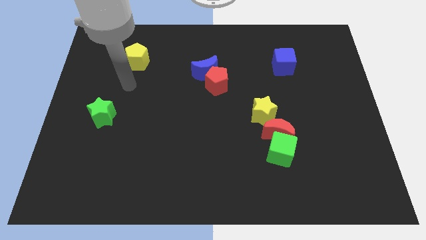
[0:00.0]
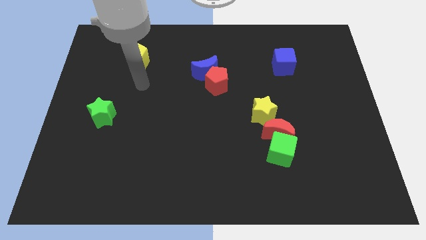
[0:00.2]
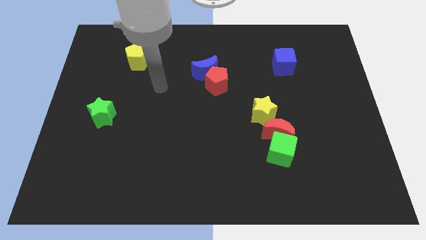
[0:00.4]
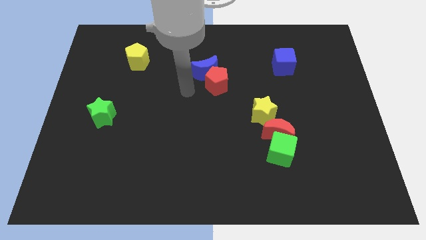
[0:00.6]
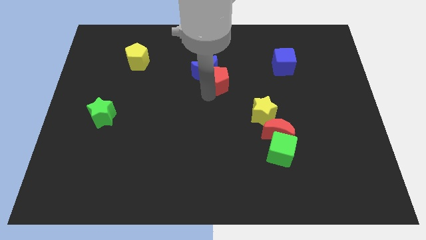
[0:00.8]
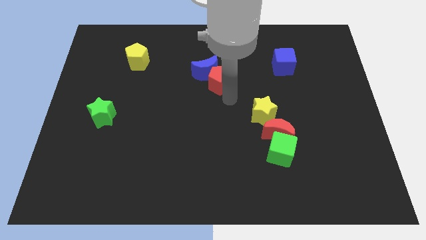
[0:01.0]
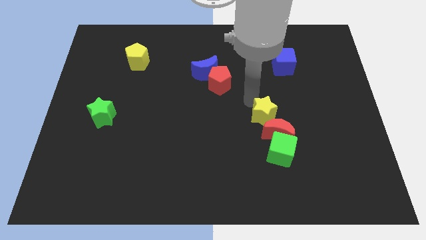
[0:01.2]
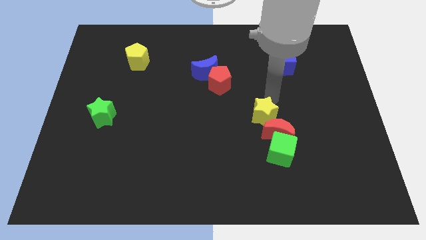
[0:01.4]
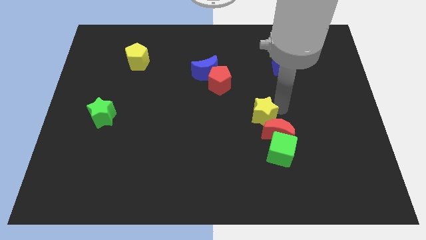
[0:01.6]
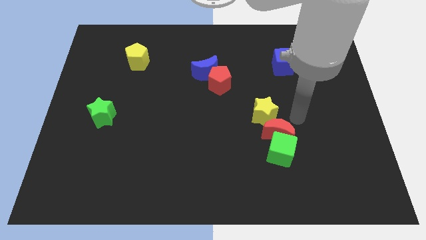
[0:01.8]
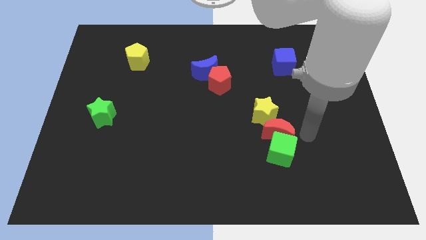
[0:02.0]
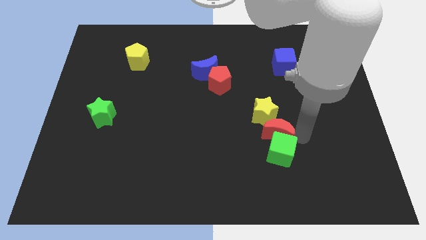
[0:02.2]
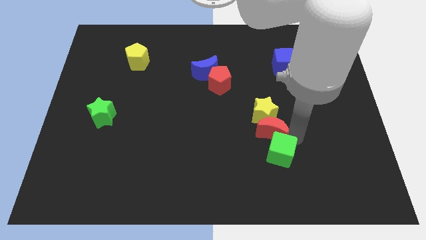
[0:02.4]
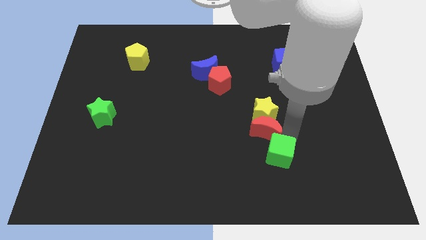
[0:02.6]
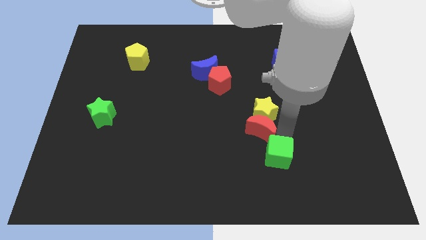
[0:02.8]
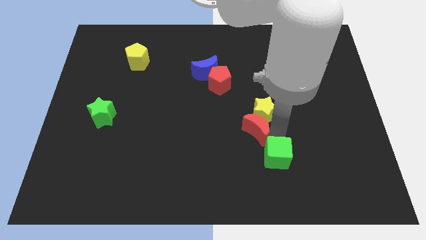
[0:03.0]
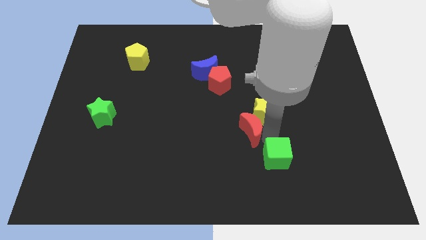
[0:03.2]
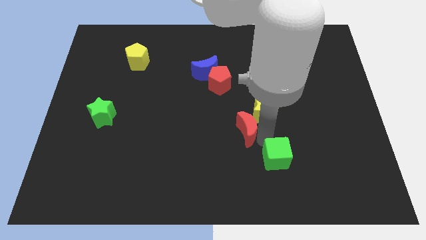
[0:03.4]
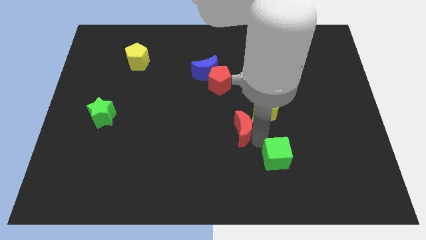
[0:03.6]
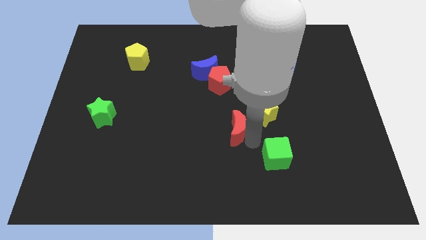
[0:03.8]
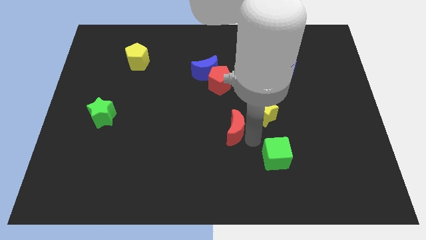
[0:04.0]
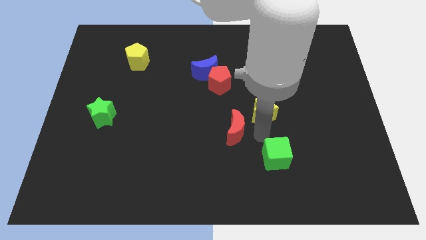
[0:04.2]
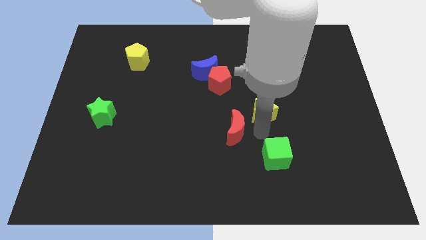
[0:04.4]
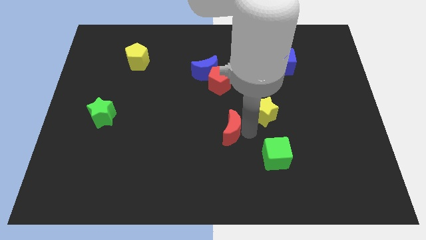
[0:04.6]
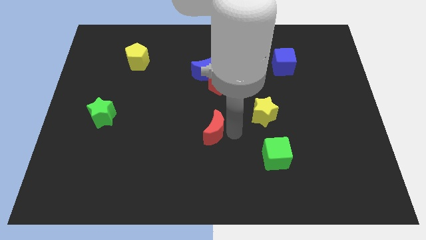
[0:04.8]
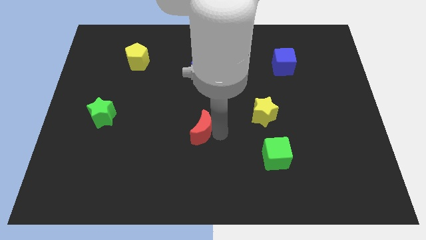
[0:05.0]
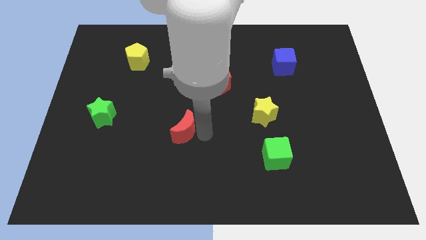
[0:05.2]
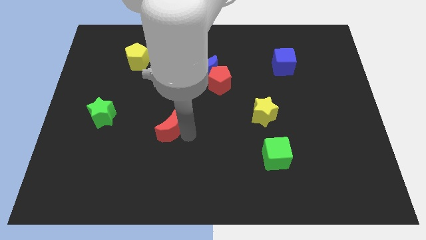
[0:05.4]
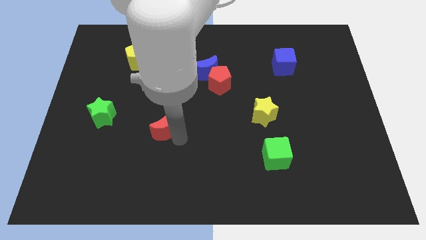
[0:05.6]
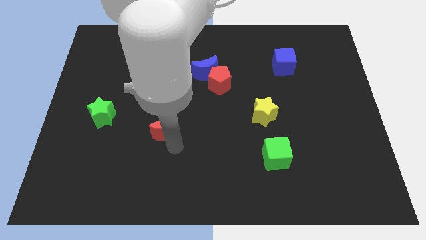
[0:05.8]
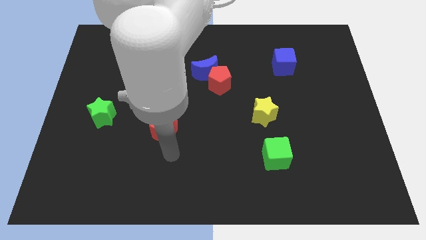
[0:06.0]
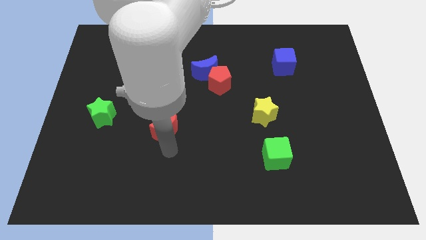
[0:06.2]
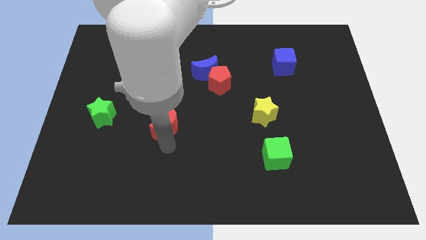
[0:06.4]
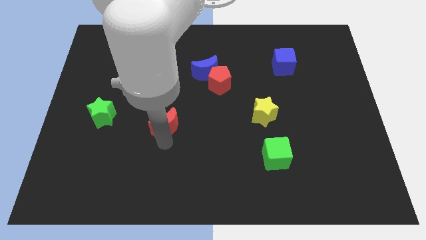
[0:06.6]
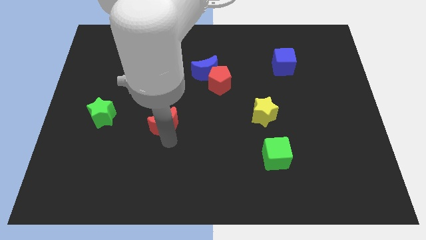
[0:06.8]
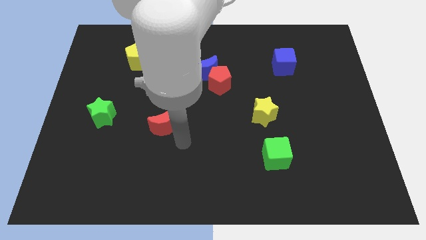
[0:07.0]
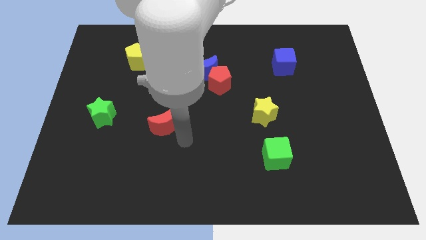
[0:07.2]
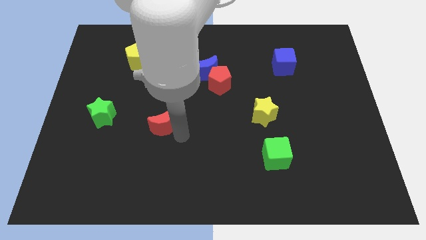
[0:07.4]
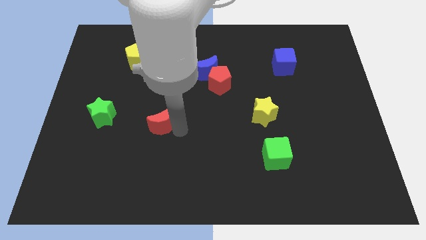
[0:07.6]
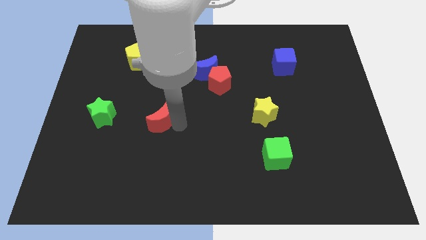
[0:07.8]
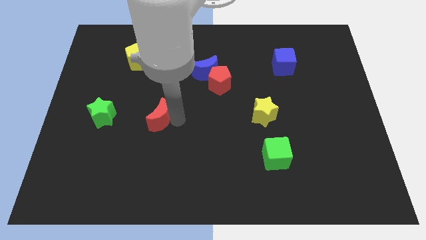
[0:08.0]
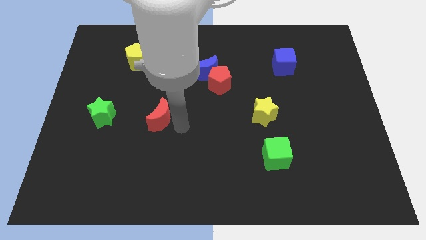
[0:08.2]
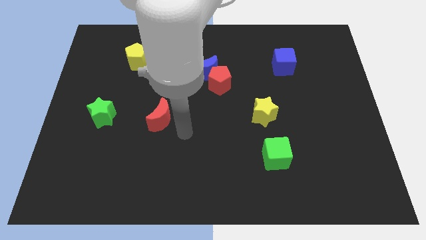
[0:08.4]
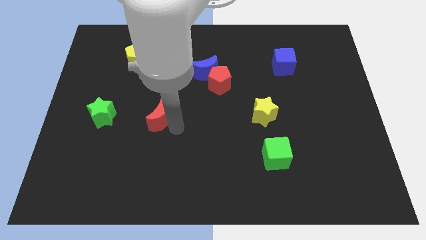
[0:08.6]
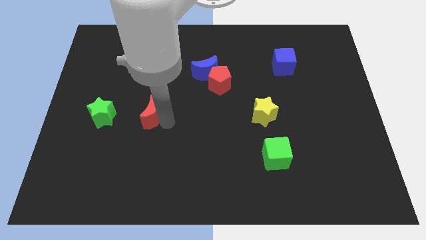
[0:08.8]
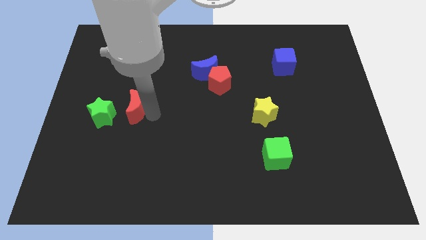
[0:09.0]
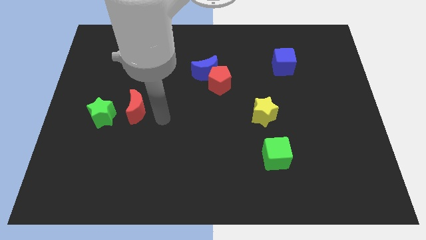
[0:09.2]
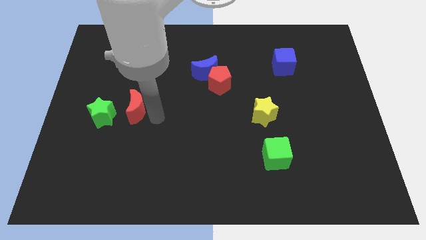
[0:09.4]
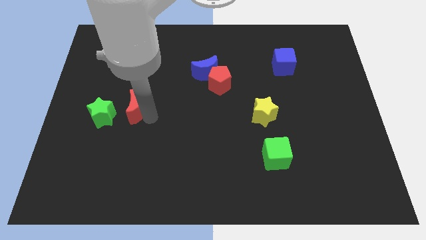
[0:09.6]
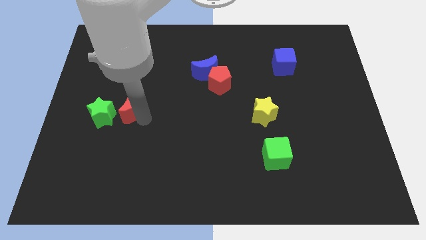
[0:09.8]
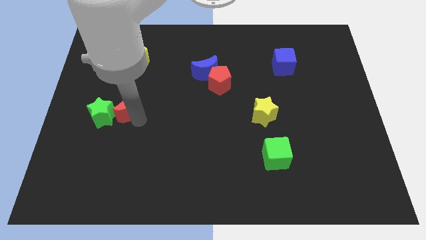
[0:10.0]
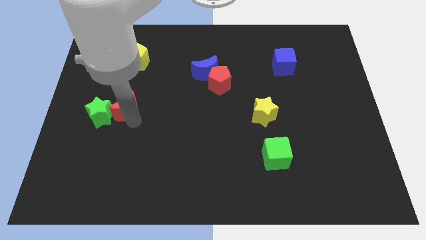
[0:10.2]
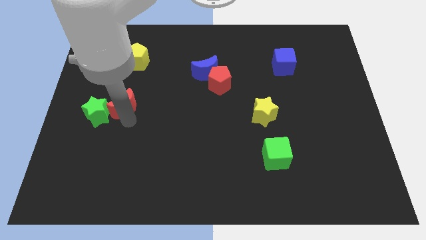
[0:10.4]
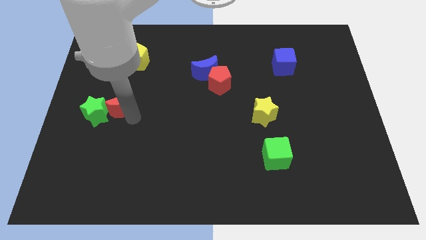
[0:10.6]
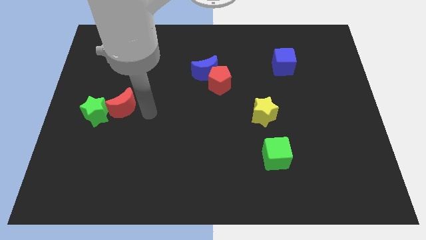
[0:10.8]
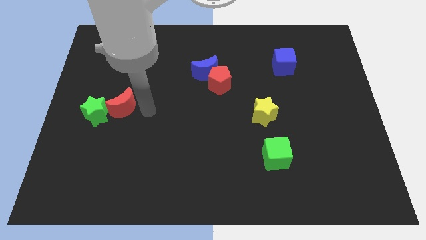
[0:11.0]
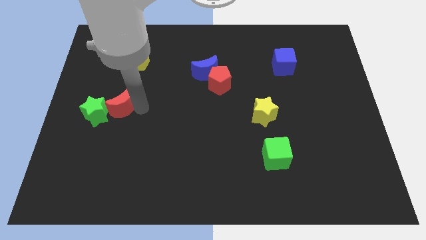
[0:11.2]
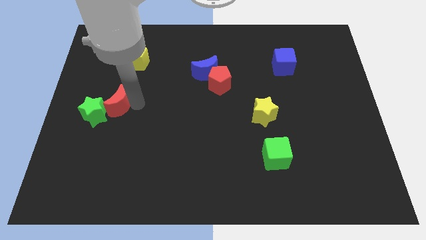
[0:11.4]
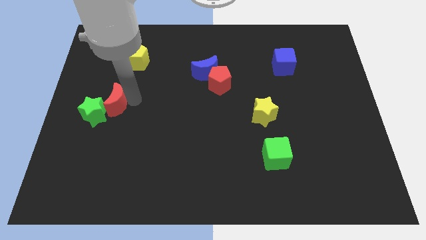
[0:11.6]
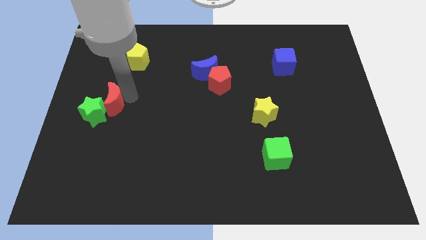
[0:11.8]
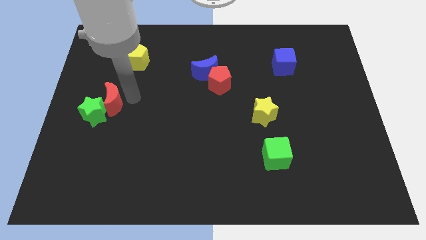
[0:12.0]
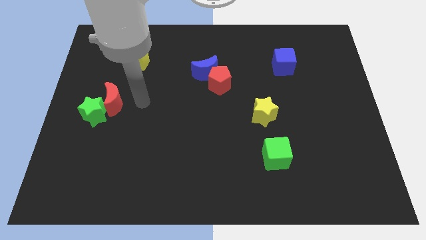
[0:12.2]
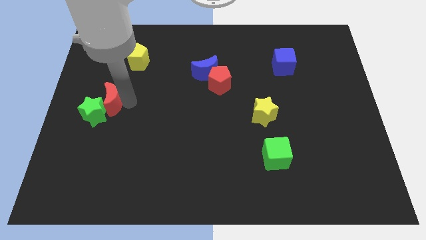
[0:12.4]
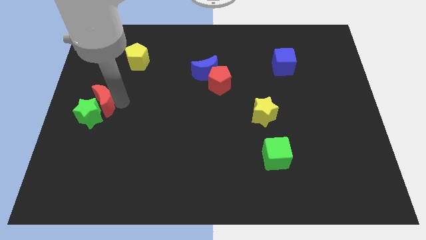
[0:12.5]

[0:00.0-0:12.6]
put the red moon to the left side
